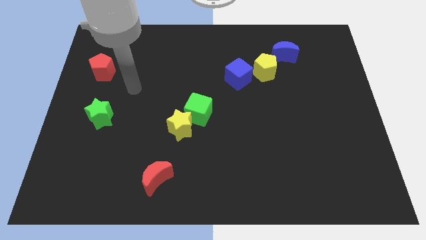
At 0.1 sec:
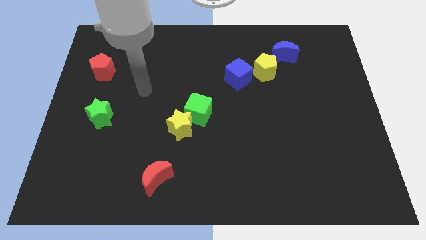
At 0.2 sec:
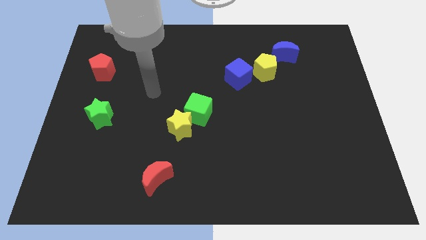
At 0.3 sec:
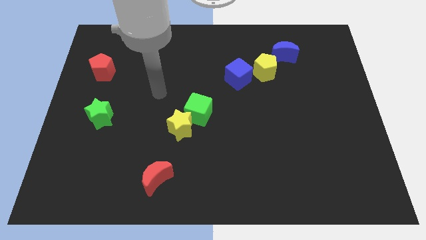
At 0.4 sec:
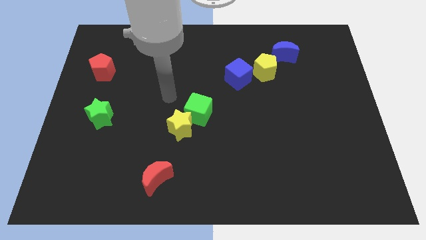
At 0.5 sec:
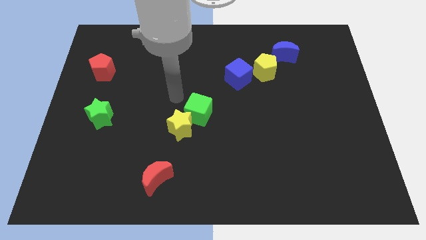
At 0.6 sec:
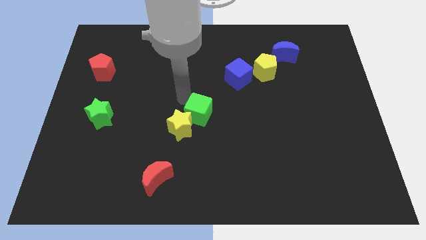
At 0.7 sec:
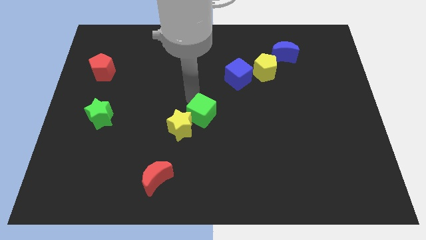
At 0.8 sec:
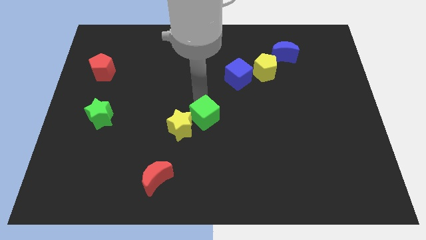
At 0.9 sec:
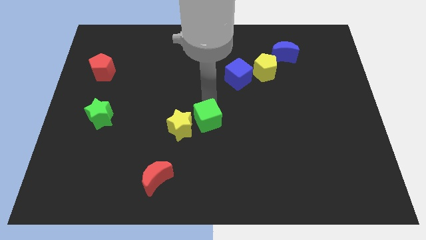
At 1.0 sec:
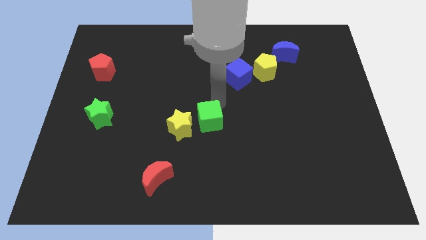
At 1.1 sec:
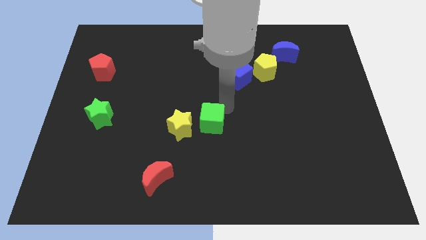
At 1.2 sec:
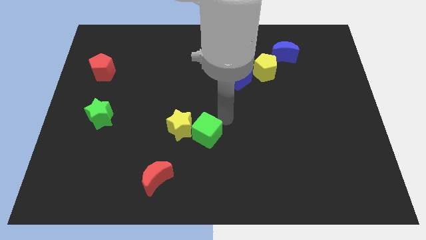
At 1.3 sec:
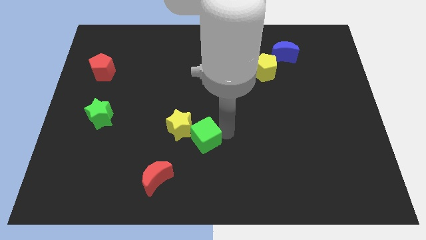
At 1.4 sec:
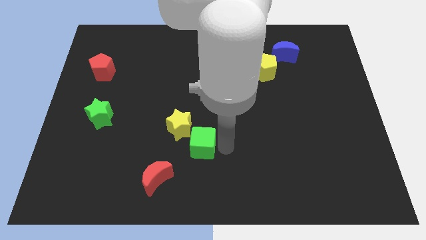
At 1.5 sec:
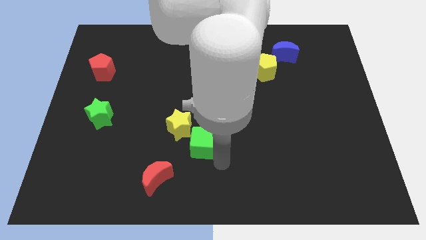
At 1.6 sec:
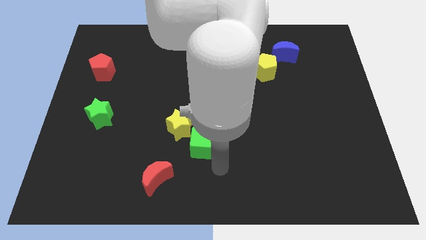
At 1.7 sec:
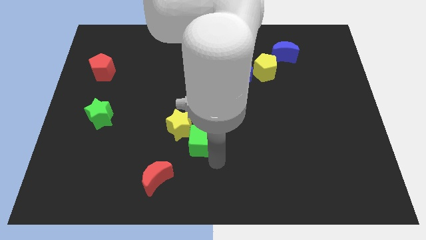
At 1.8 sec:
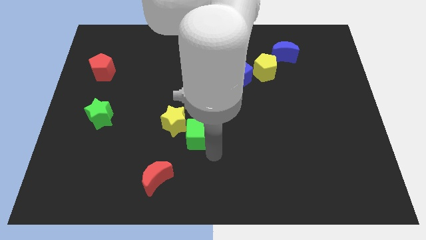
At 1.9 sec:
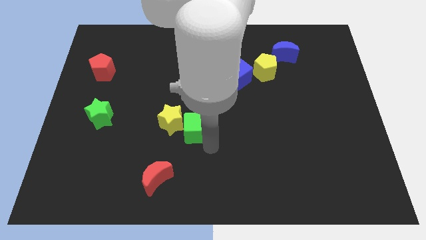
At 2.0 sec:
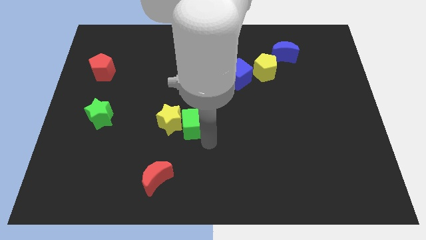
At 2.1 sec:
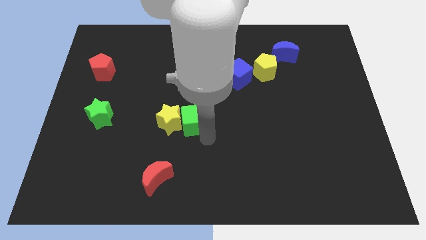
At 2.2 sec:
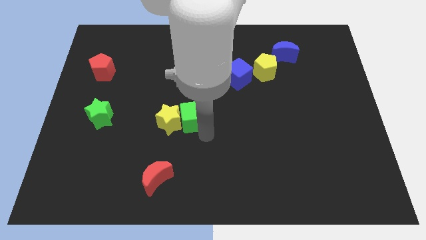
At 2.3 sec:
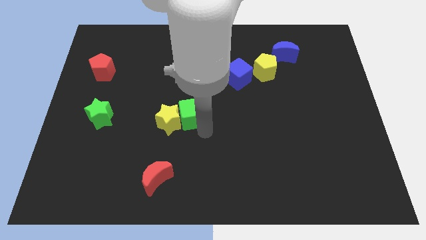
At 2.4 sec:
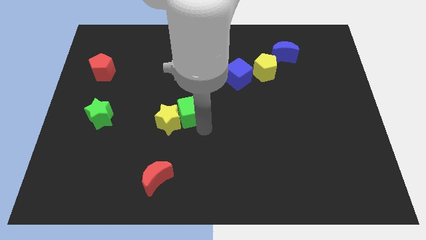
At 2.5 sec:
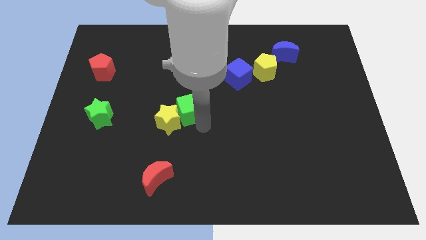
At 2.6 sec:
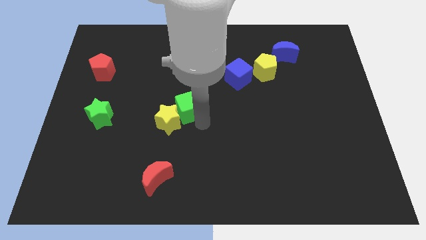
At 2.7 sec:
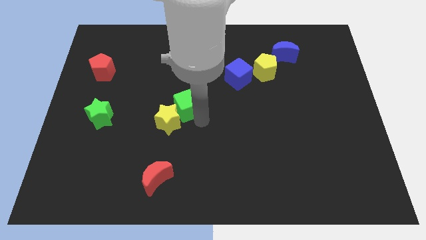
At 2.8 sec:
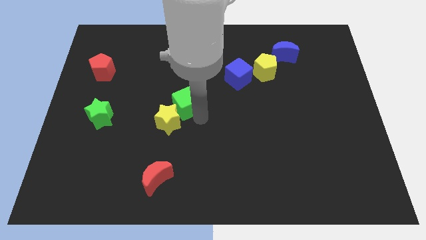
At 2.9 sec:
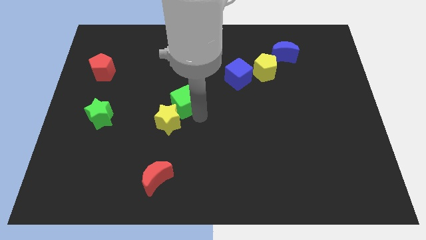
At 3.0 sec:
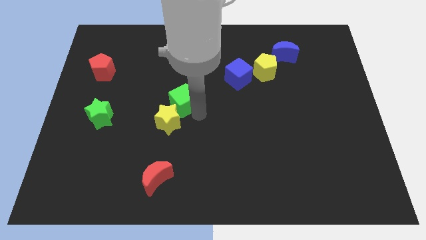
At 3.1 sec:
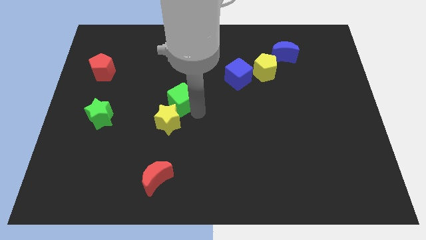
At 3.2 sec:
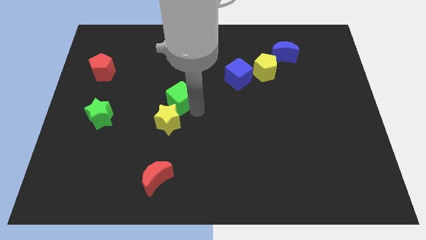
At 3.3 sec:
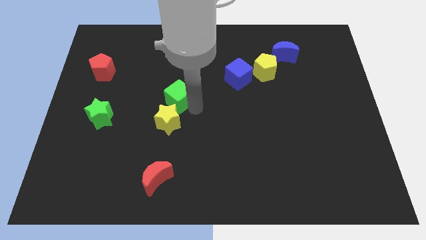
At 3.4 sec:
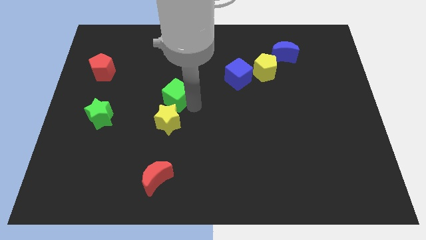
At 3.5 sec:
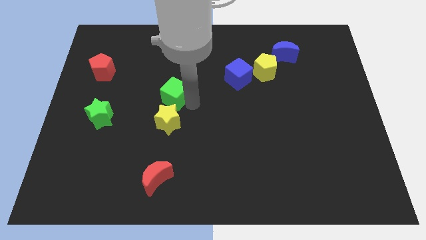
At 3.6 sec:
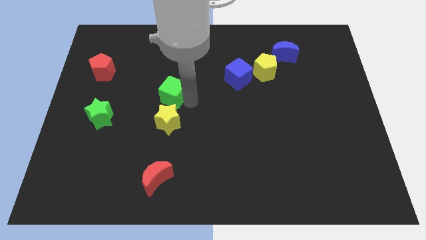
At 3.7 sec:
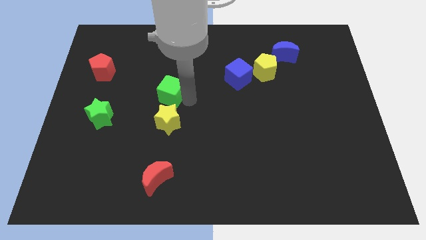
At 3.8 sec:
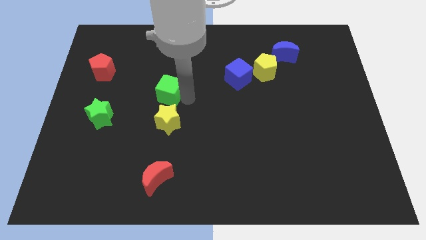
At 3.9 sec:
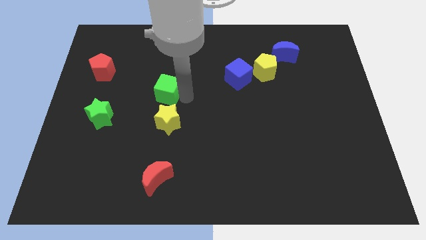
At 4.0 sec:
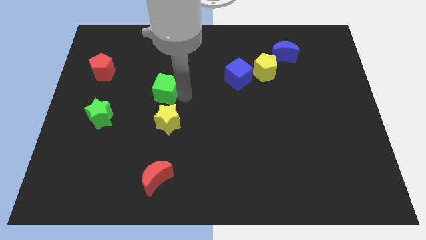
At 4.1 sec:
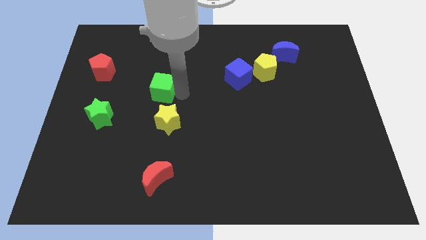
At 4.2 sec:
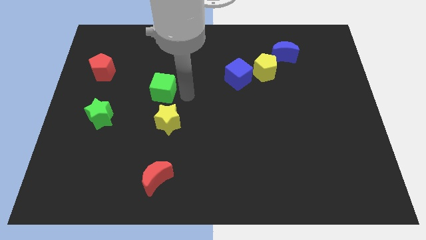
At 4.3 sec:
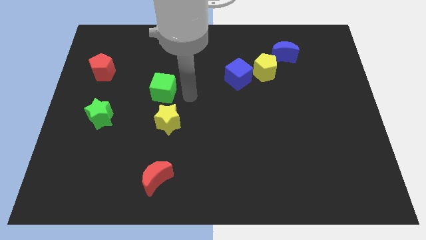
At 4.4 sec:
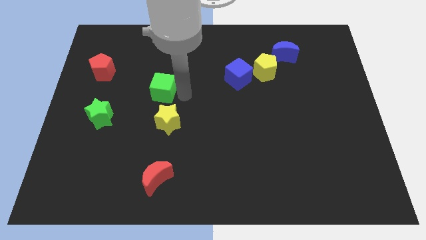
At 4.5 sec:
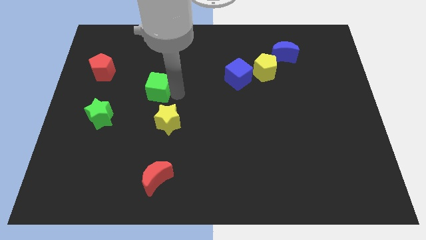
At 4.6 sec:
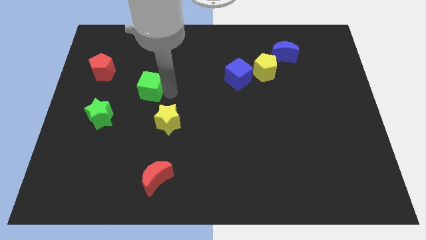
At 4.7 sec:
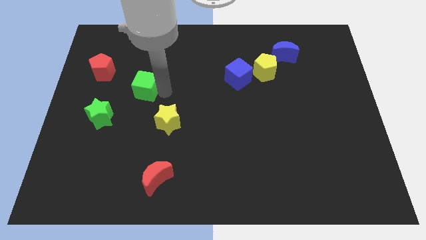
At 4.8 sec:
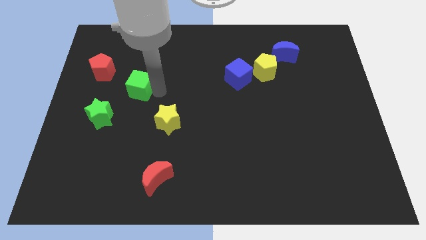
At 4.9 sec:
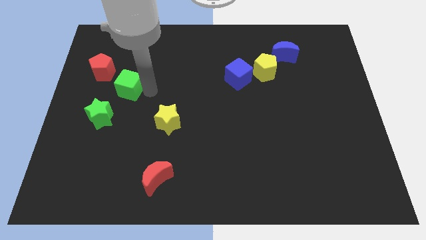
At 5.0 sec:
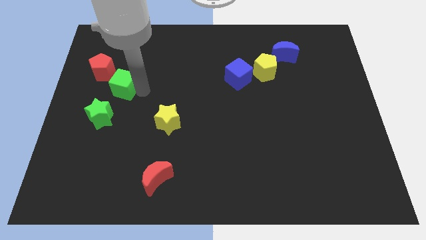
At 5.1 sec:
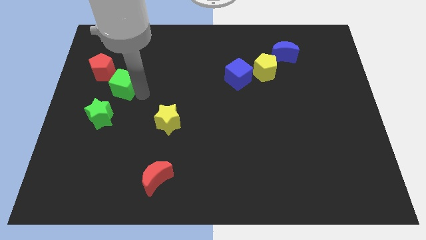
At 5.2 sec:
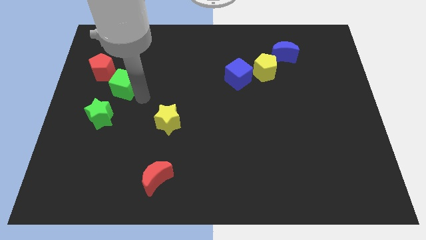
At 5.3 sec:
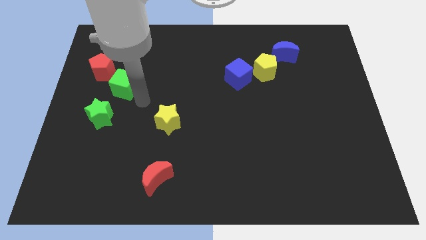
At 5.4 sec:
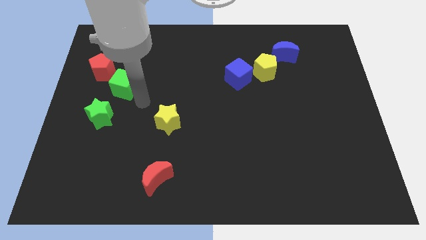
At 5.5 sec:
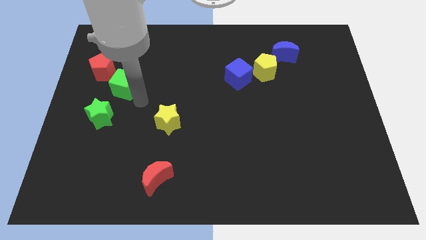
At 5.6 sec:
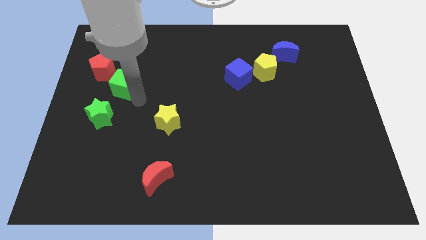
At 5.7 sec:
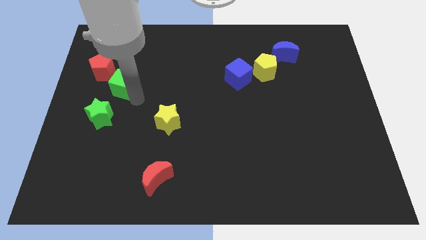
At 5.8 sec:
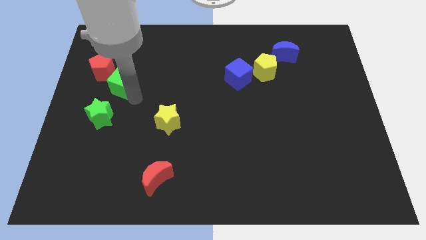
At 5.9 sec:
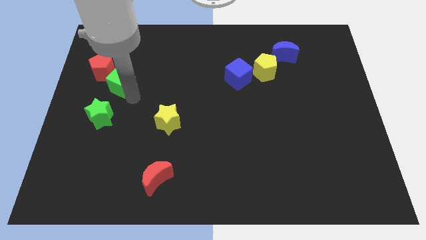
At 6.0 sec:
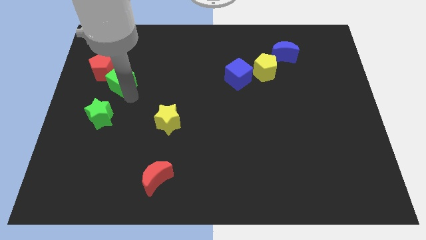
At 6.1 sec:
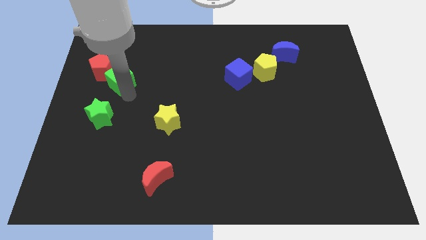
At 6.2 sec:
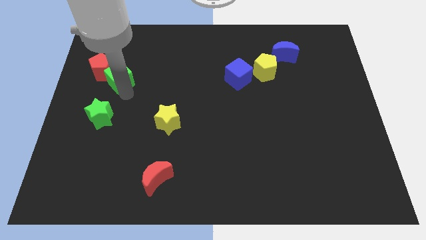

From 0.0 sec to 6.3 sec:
push the green cube close to the red pentagon

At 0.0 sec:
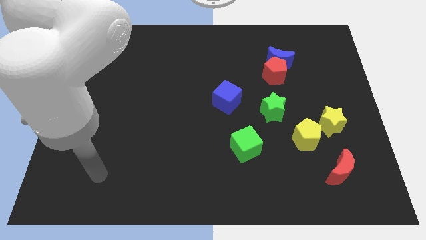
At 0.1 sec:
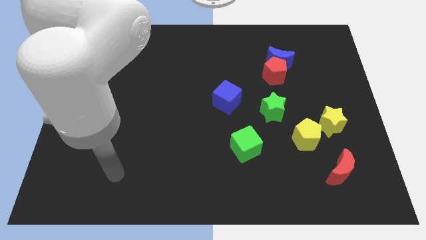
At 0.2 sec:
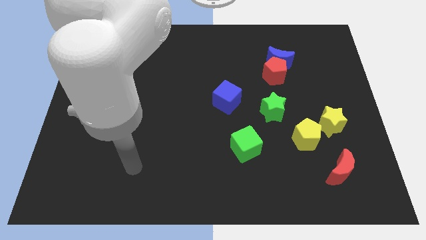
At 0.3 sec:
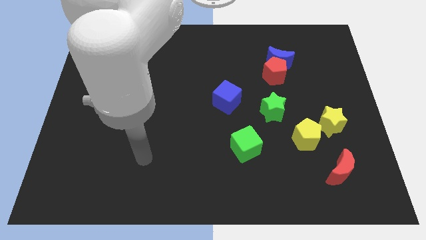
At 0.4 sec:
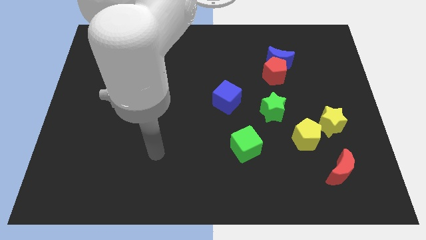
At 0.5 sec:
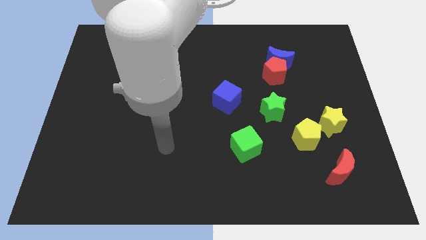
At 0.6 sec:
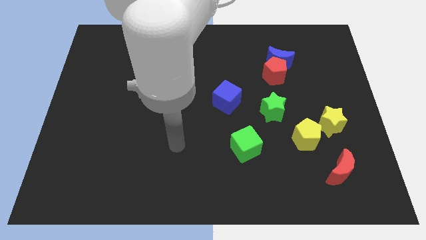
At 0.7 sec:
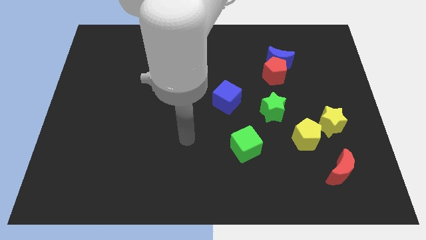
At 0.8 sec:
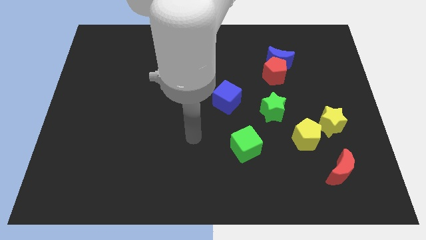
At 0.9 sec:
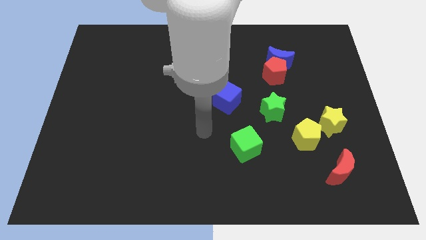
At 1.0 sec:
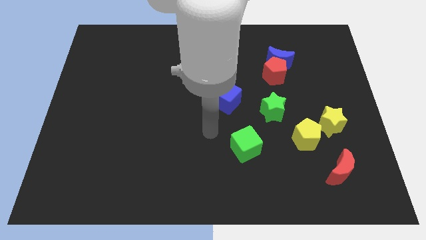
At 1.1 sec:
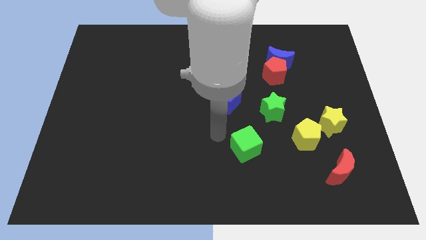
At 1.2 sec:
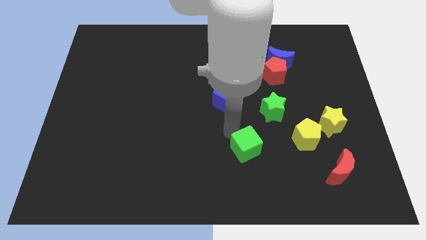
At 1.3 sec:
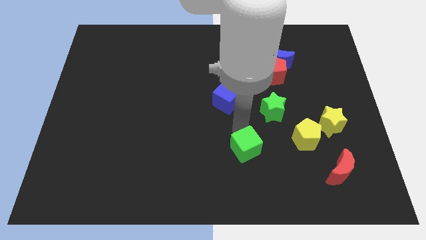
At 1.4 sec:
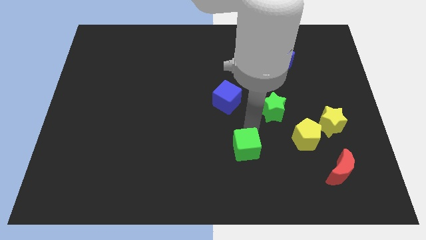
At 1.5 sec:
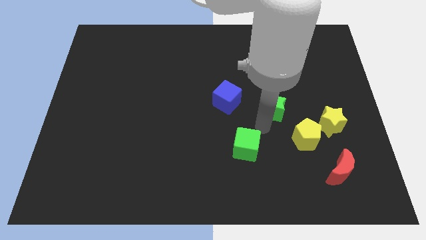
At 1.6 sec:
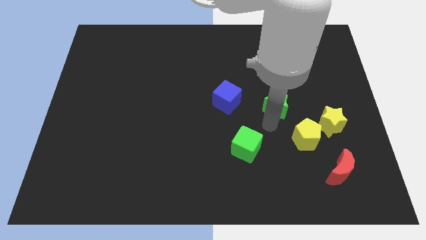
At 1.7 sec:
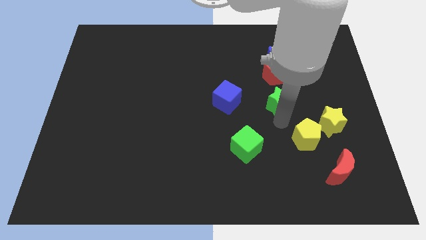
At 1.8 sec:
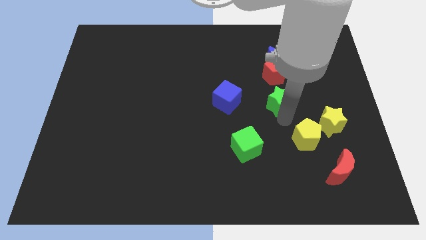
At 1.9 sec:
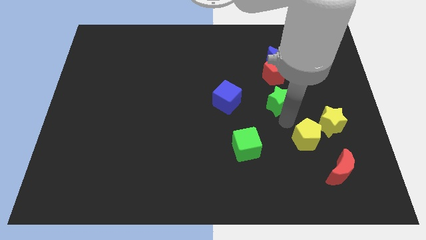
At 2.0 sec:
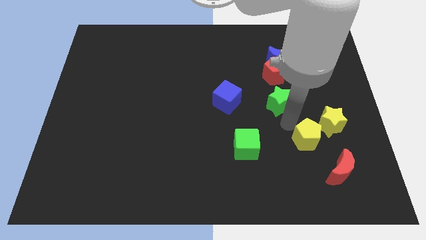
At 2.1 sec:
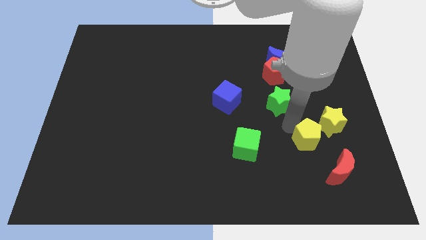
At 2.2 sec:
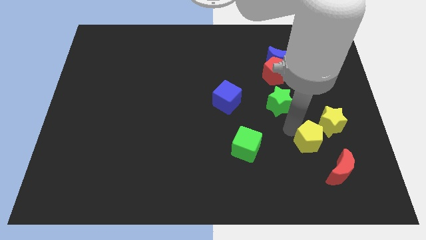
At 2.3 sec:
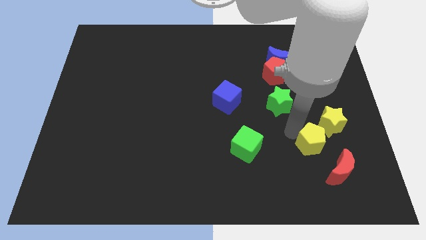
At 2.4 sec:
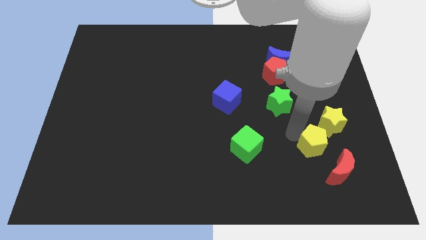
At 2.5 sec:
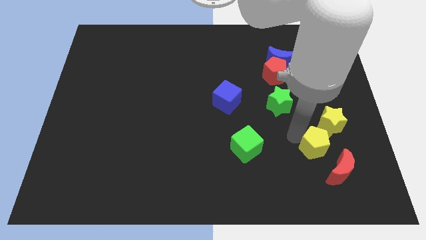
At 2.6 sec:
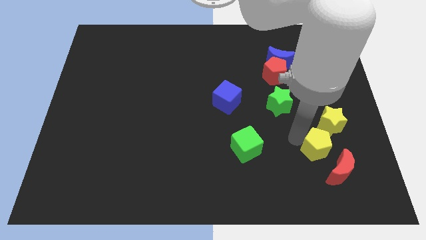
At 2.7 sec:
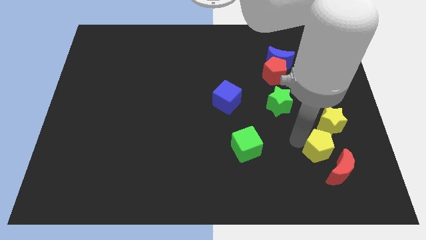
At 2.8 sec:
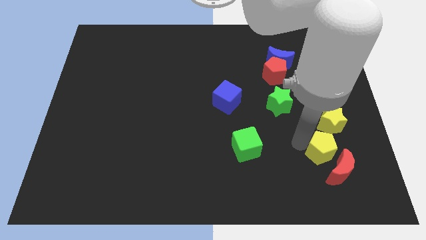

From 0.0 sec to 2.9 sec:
put the yellow pentagon towards the red moon
